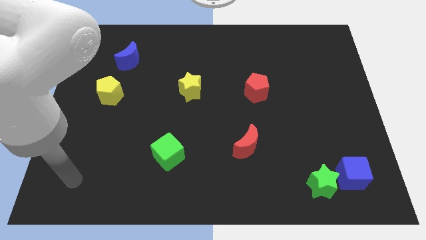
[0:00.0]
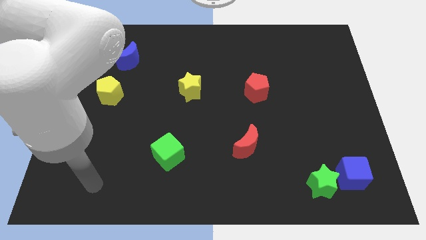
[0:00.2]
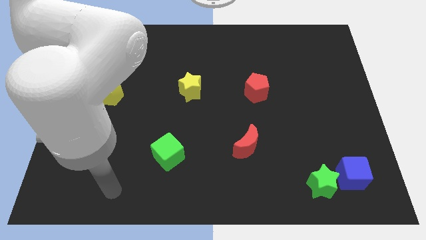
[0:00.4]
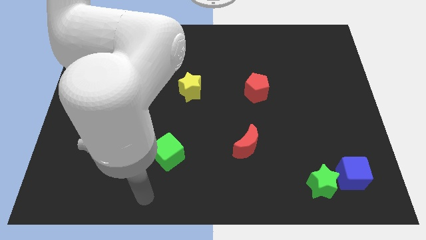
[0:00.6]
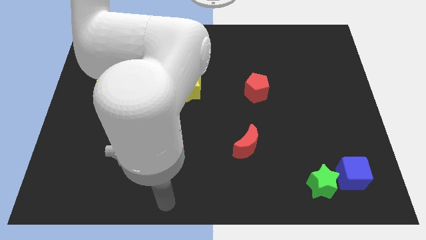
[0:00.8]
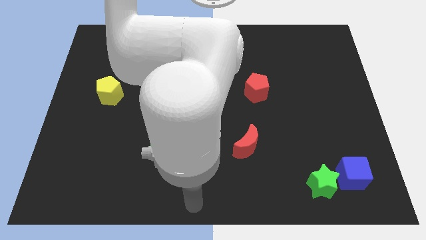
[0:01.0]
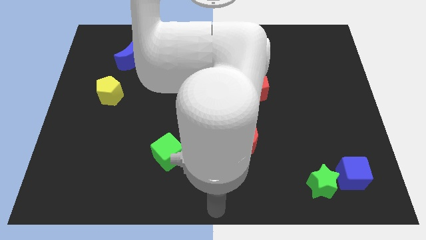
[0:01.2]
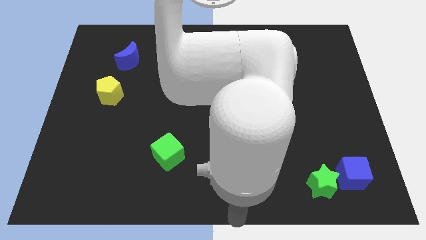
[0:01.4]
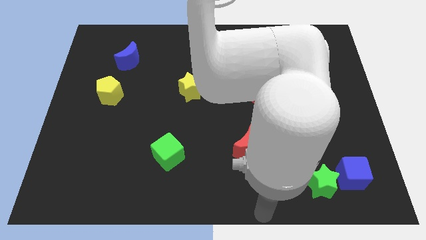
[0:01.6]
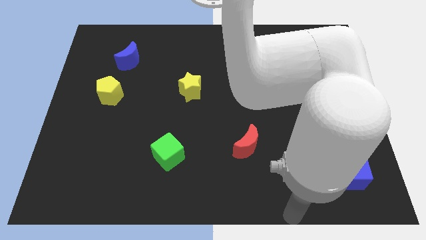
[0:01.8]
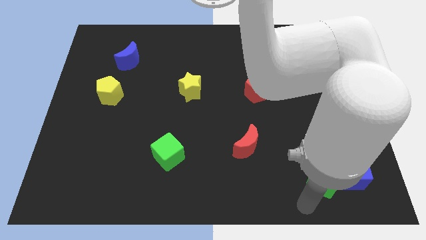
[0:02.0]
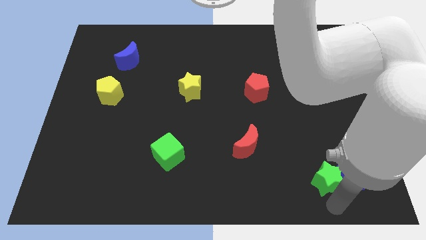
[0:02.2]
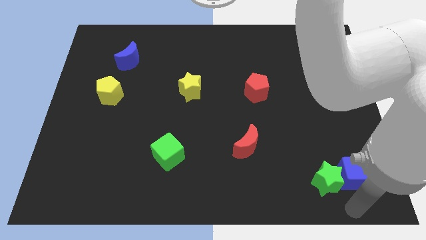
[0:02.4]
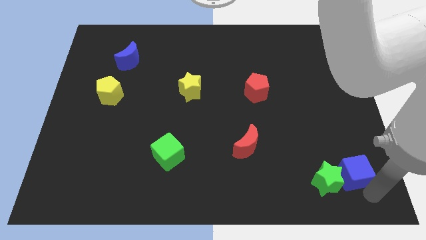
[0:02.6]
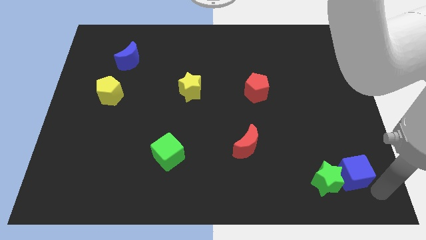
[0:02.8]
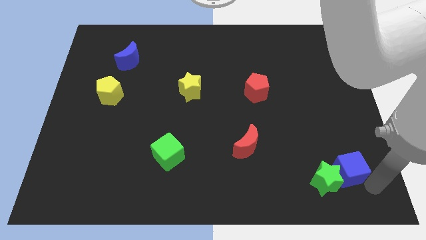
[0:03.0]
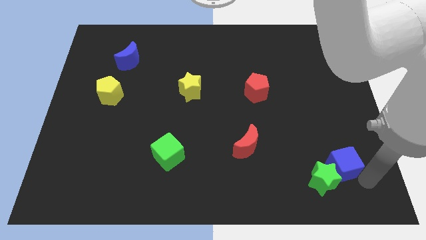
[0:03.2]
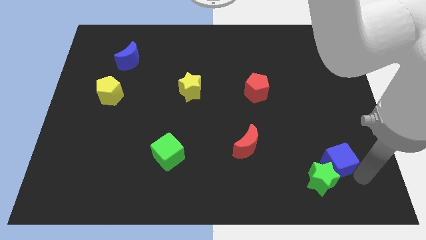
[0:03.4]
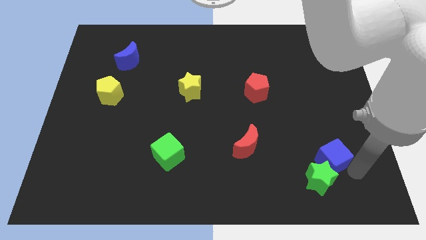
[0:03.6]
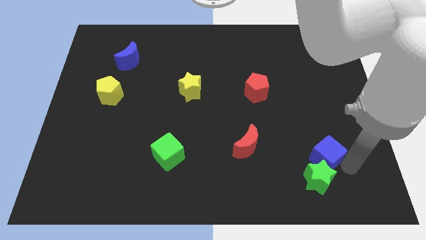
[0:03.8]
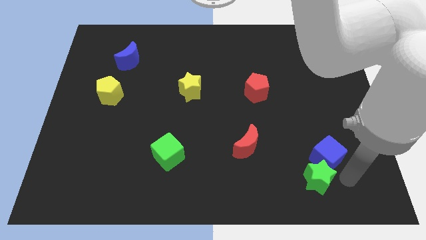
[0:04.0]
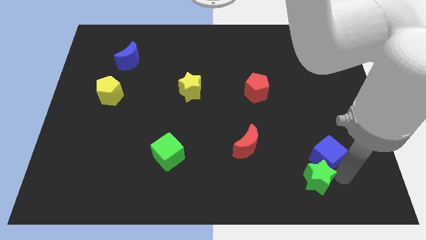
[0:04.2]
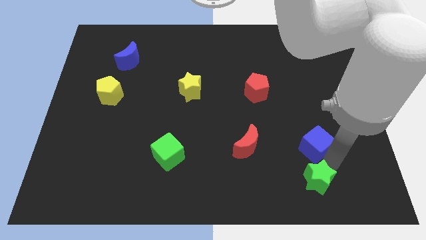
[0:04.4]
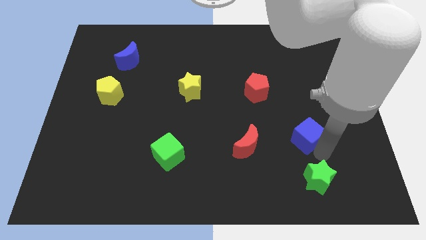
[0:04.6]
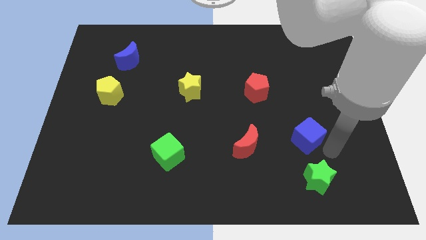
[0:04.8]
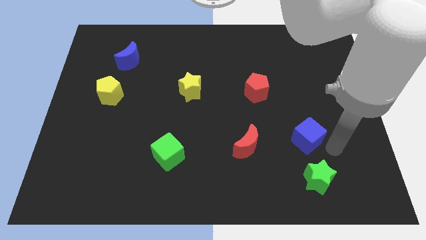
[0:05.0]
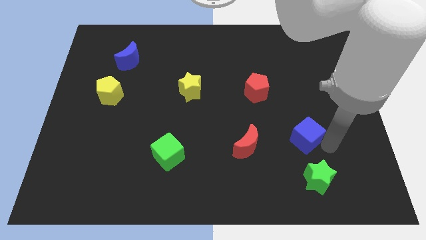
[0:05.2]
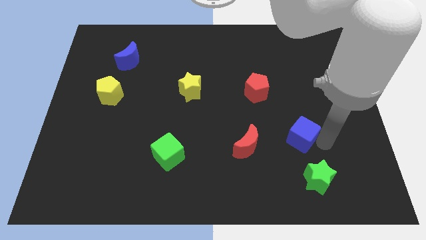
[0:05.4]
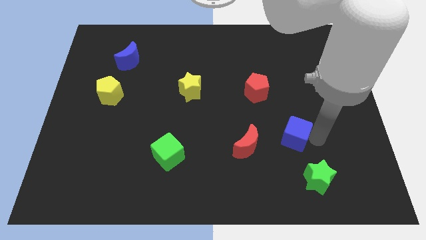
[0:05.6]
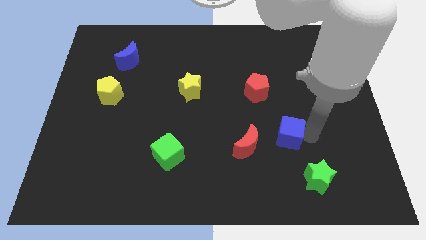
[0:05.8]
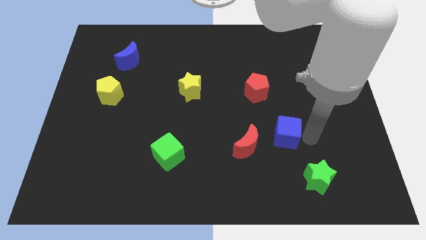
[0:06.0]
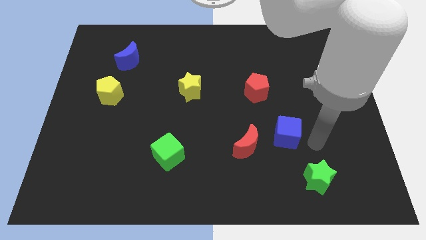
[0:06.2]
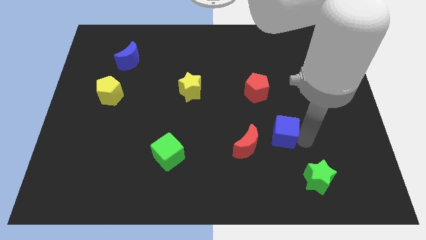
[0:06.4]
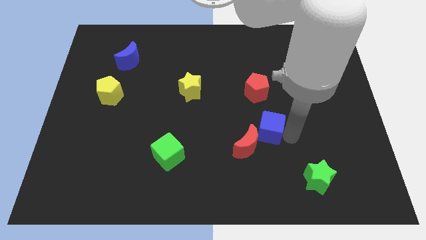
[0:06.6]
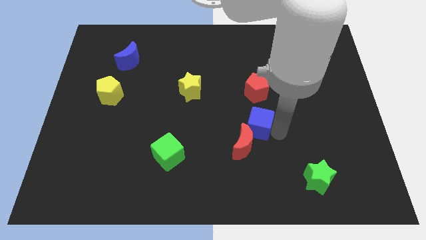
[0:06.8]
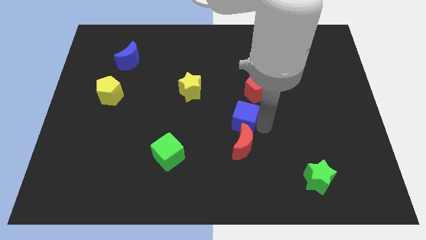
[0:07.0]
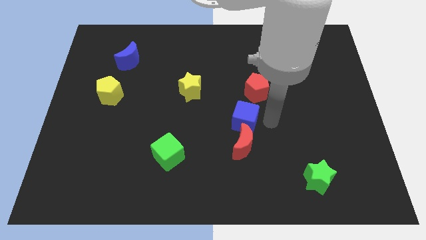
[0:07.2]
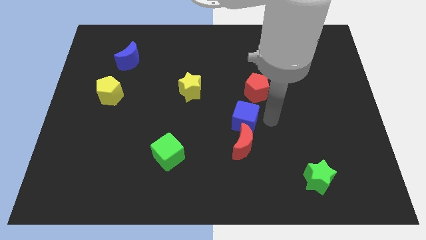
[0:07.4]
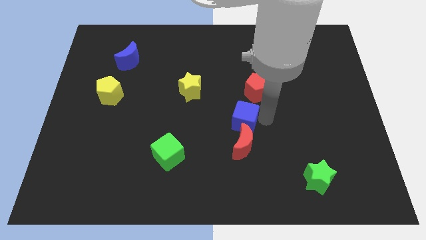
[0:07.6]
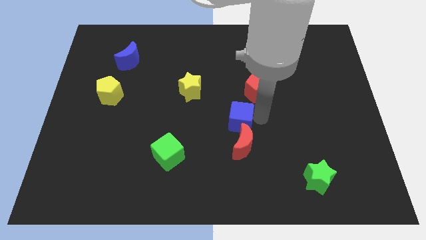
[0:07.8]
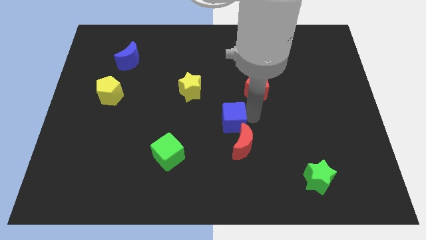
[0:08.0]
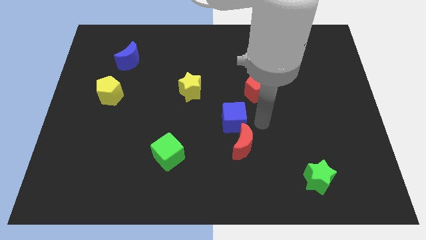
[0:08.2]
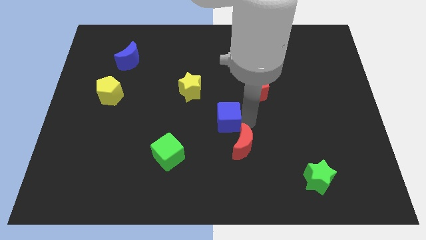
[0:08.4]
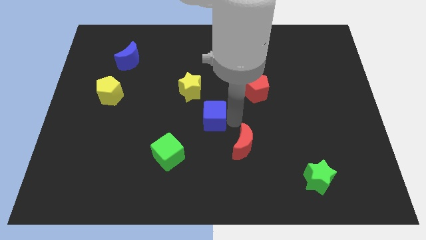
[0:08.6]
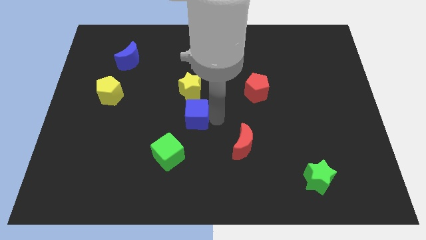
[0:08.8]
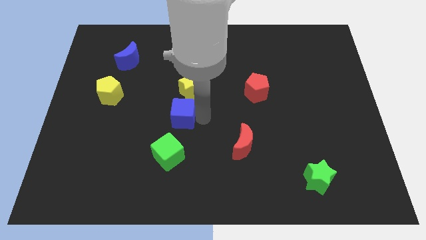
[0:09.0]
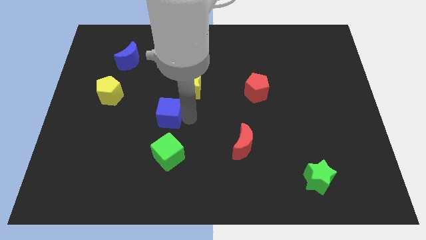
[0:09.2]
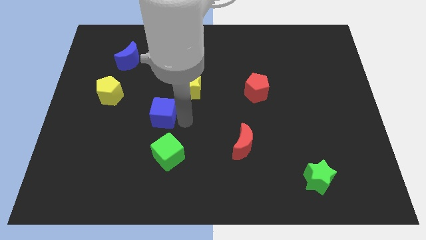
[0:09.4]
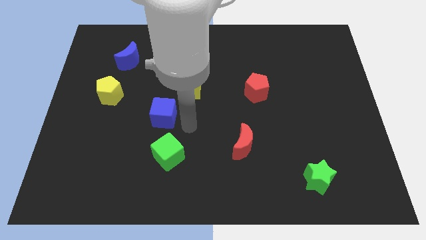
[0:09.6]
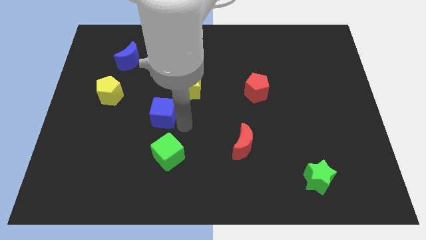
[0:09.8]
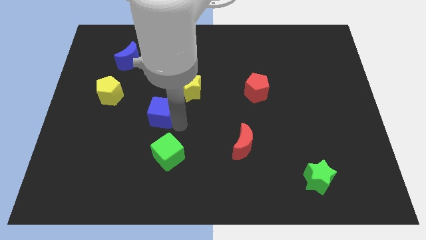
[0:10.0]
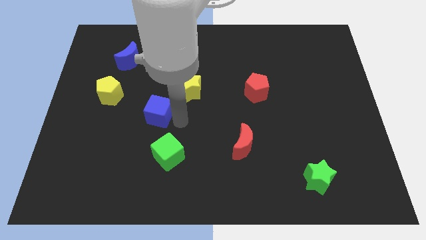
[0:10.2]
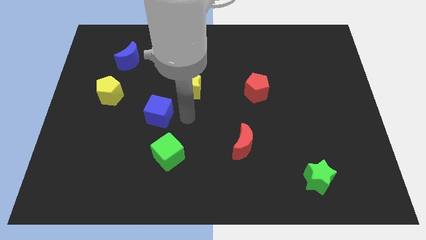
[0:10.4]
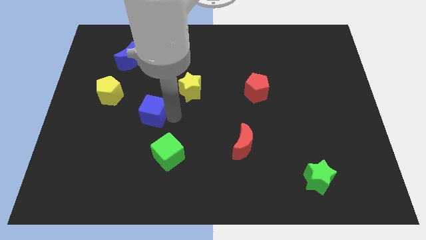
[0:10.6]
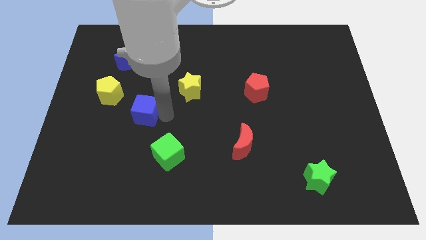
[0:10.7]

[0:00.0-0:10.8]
slide the blue cube to the bottom right of the yellow pentagon

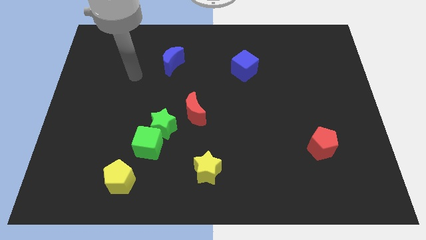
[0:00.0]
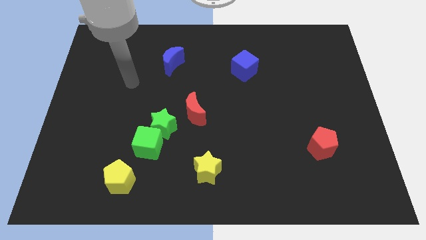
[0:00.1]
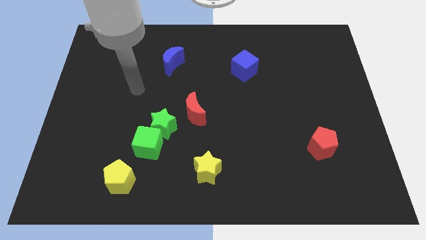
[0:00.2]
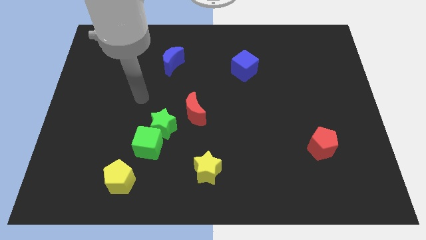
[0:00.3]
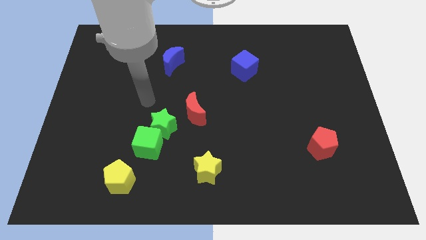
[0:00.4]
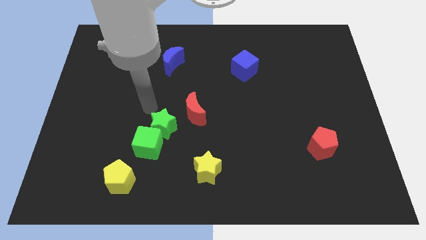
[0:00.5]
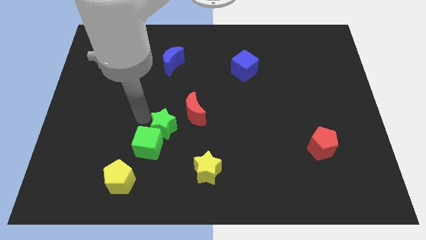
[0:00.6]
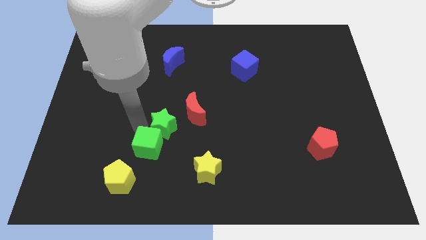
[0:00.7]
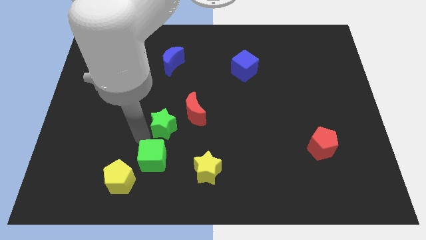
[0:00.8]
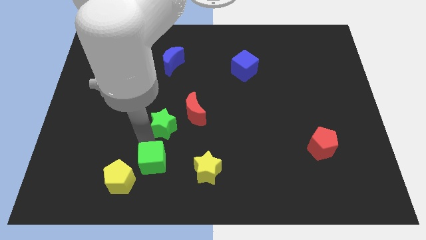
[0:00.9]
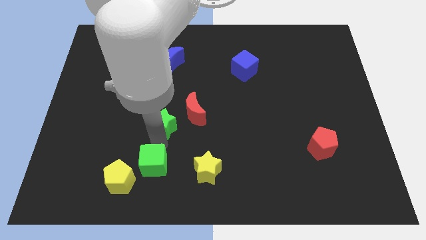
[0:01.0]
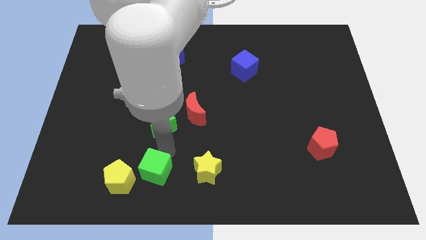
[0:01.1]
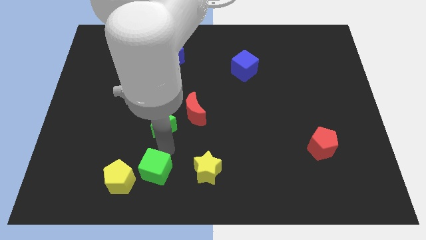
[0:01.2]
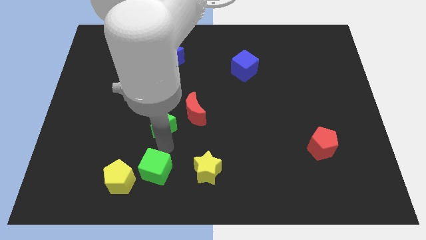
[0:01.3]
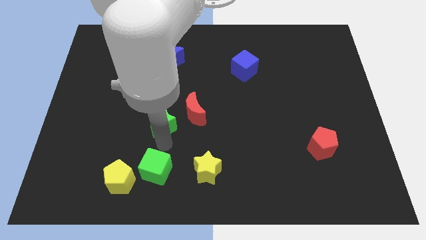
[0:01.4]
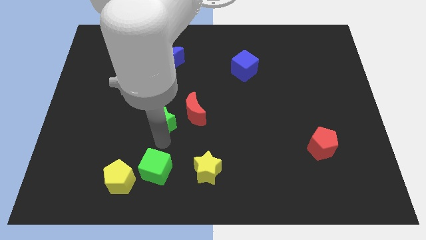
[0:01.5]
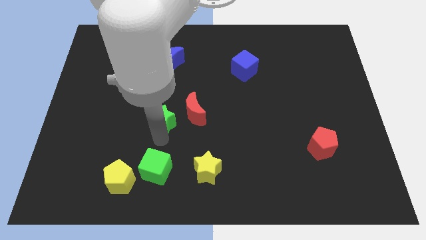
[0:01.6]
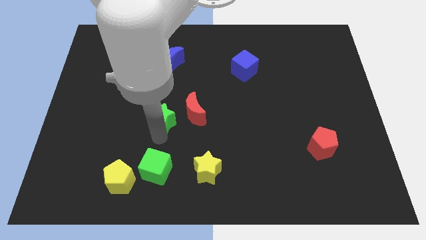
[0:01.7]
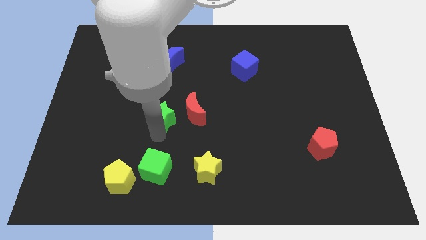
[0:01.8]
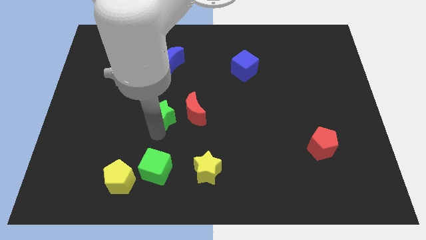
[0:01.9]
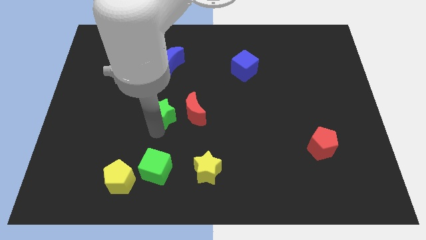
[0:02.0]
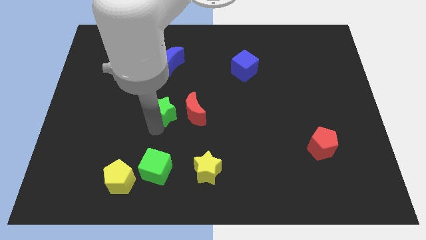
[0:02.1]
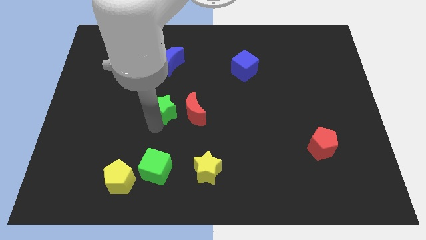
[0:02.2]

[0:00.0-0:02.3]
push the green star below the blue moon
